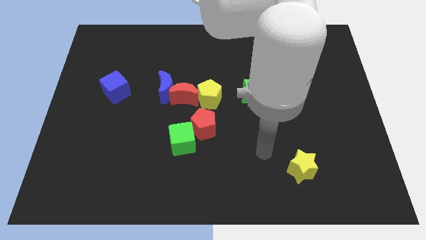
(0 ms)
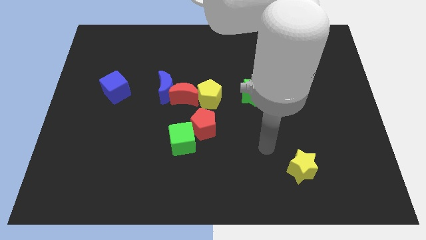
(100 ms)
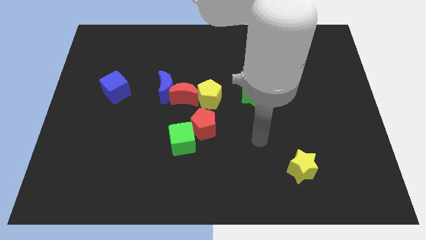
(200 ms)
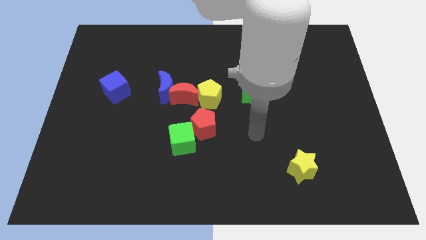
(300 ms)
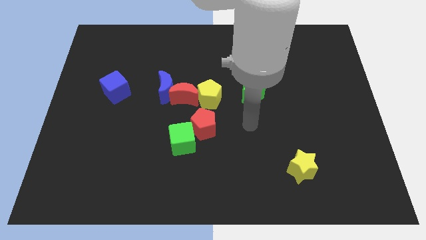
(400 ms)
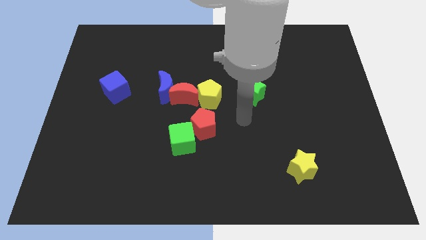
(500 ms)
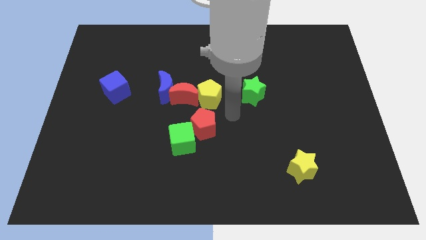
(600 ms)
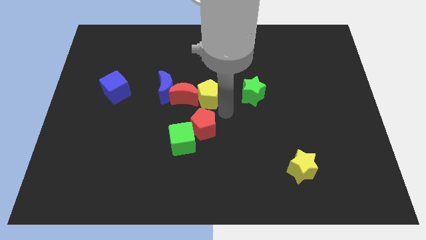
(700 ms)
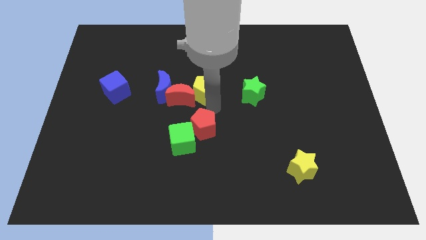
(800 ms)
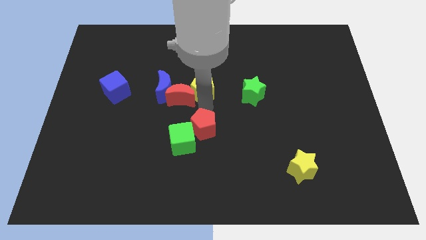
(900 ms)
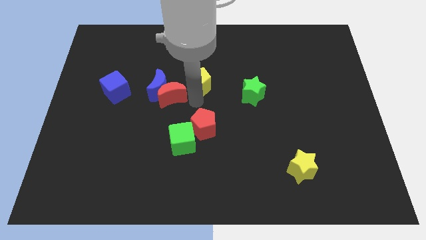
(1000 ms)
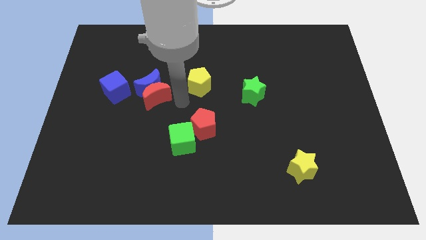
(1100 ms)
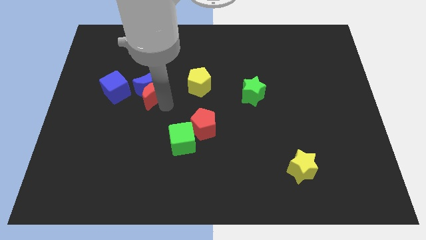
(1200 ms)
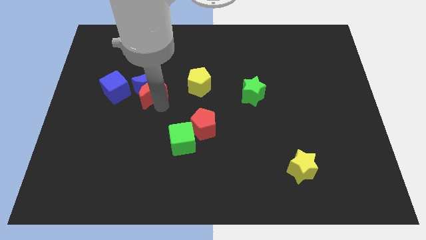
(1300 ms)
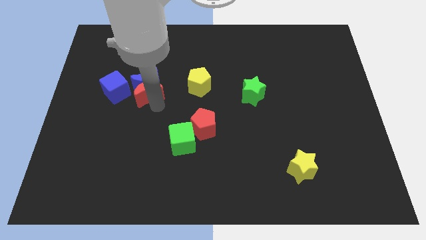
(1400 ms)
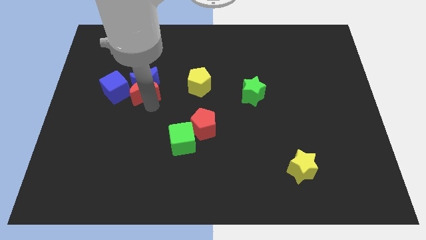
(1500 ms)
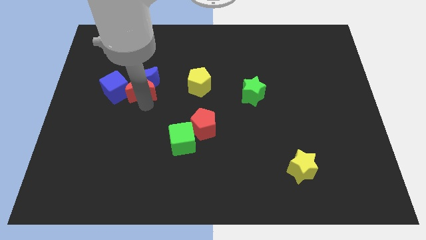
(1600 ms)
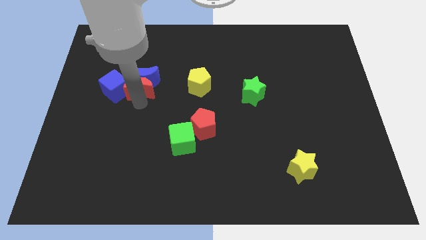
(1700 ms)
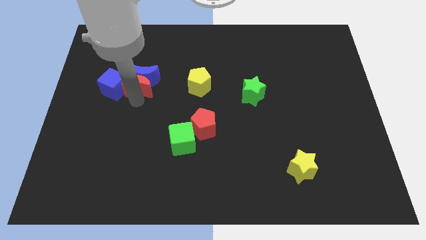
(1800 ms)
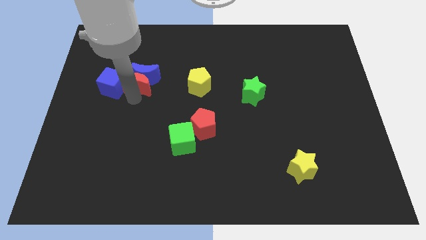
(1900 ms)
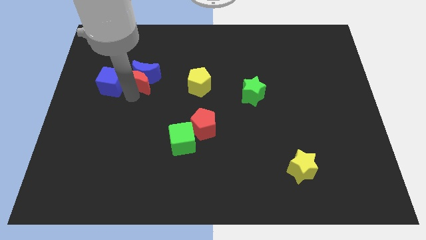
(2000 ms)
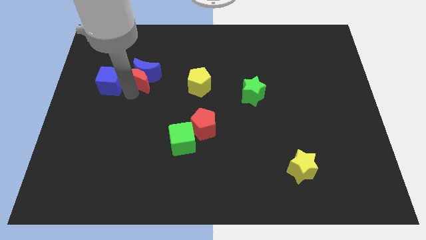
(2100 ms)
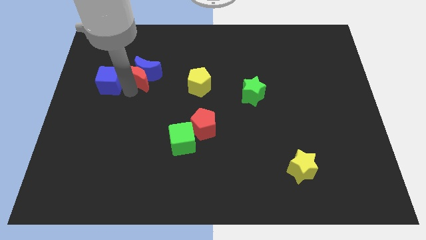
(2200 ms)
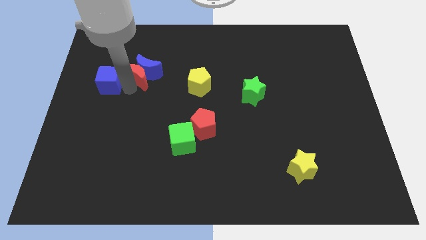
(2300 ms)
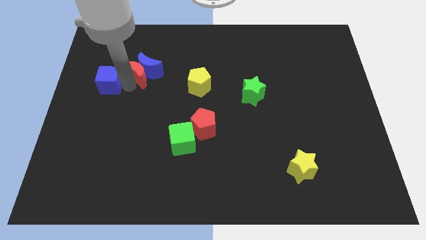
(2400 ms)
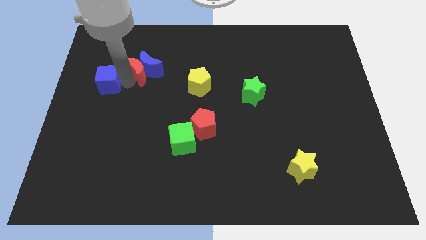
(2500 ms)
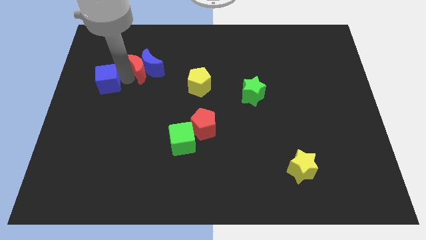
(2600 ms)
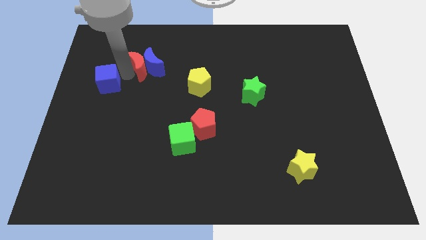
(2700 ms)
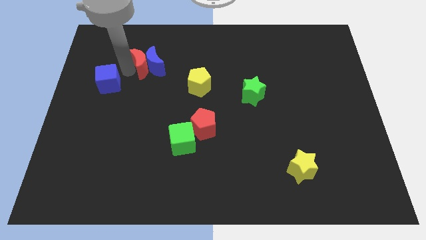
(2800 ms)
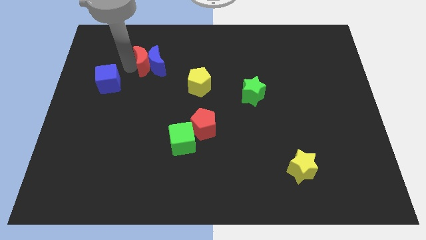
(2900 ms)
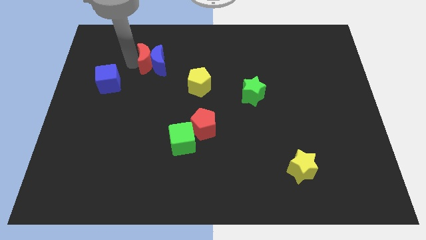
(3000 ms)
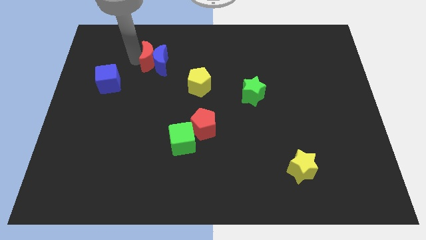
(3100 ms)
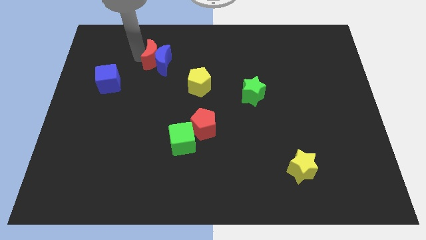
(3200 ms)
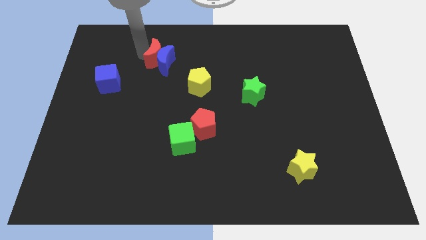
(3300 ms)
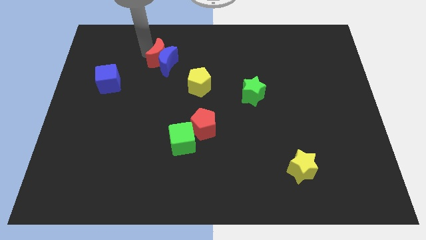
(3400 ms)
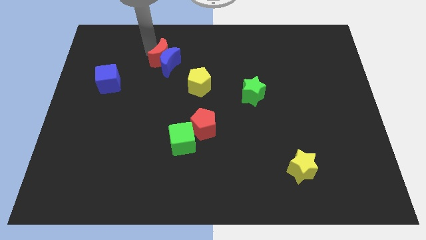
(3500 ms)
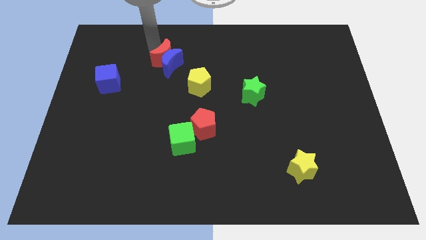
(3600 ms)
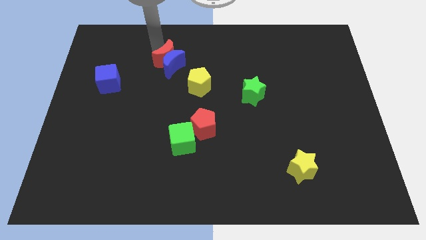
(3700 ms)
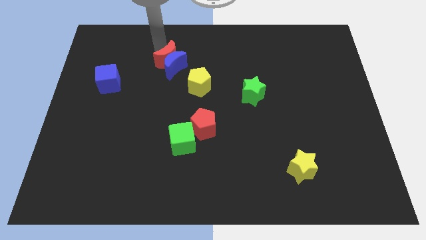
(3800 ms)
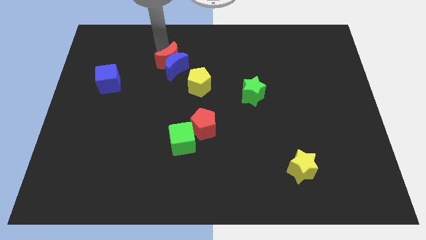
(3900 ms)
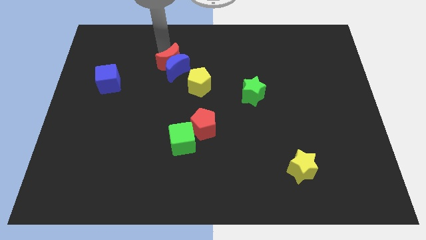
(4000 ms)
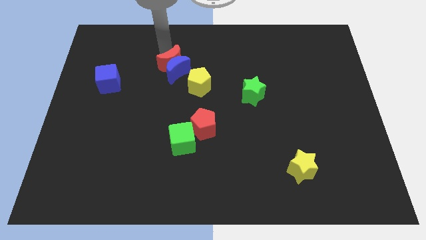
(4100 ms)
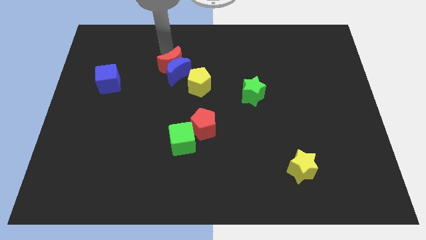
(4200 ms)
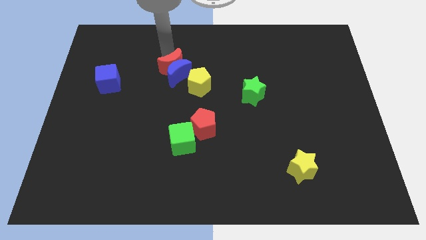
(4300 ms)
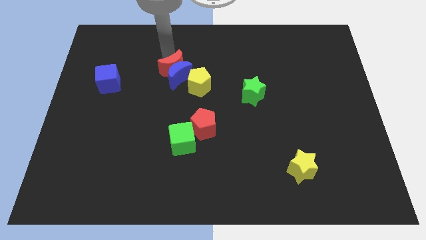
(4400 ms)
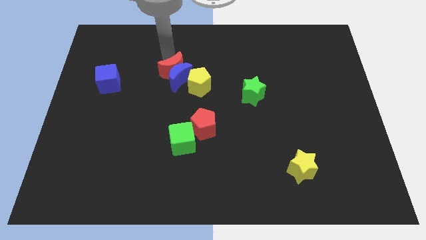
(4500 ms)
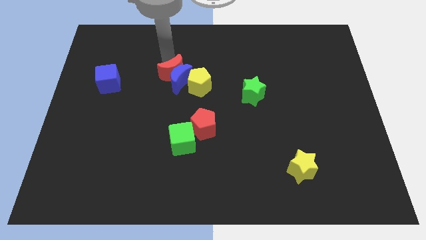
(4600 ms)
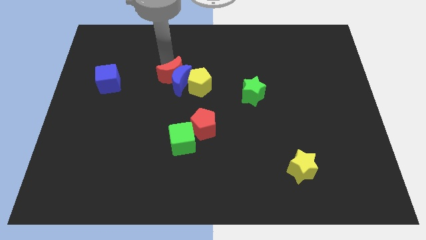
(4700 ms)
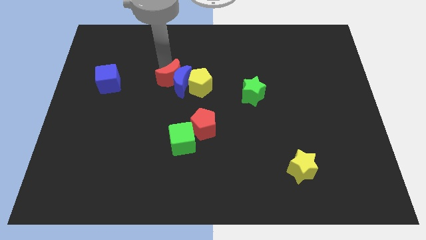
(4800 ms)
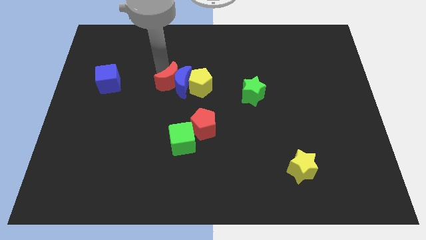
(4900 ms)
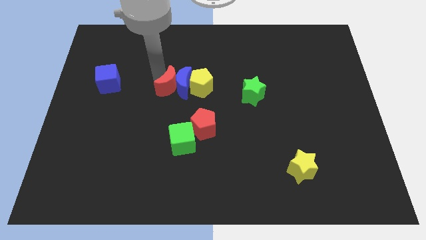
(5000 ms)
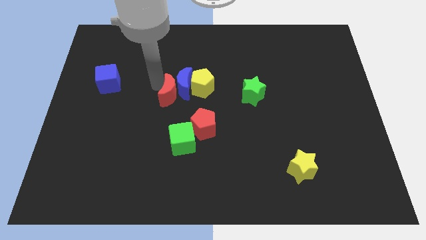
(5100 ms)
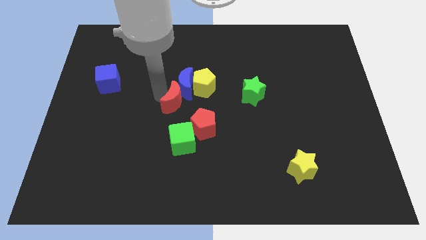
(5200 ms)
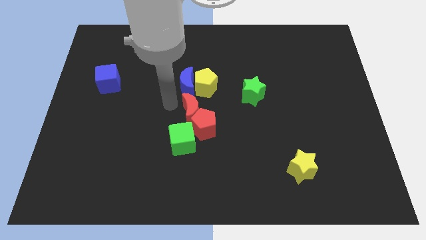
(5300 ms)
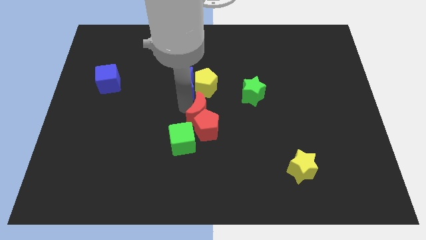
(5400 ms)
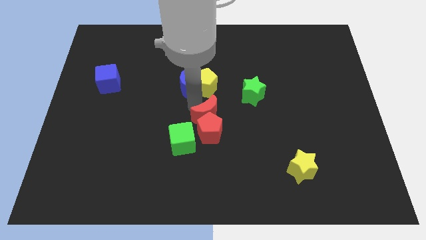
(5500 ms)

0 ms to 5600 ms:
separate the blue moon from the red moon

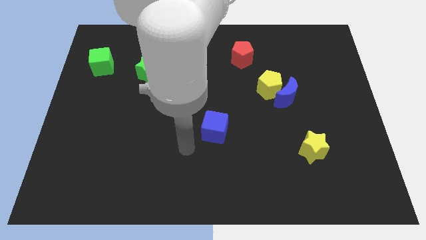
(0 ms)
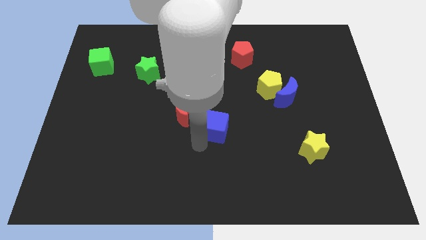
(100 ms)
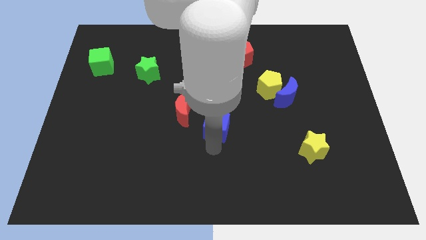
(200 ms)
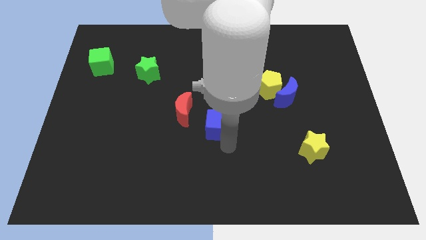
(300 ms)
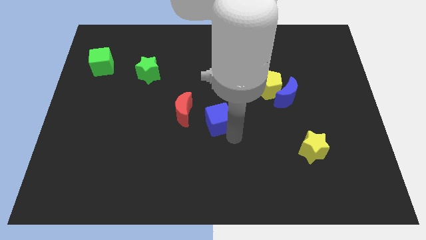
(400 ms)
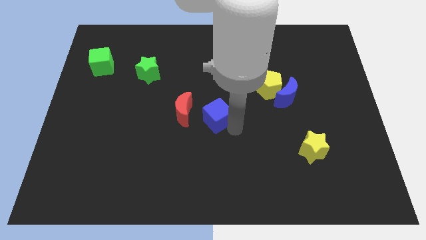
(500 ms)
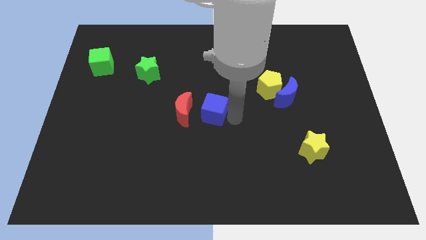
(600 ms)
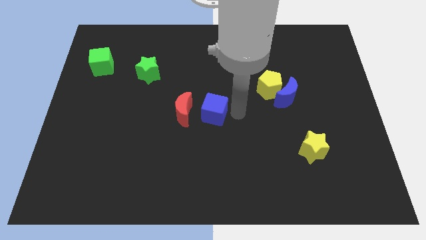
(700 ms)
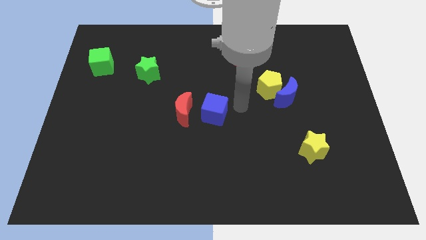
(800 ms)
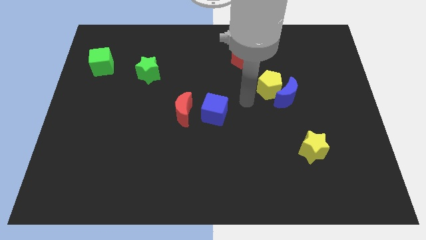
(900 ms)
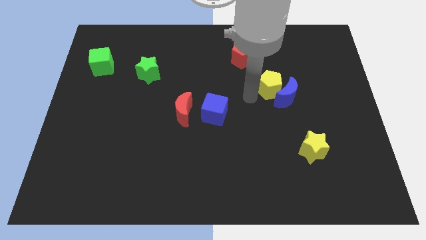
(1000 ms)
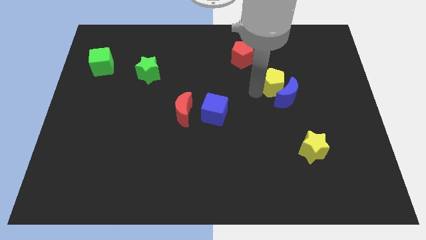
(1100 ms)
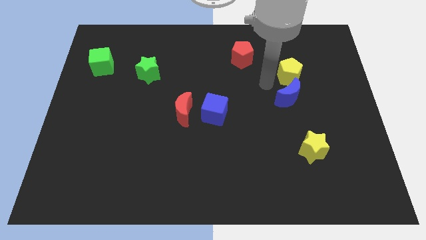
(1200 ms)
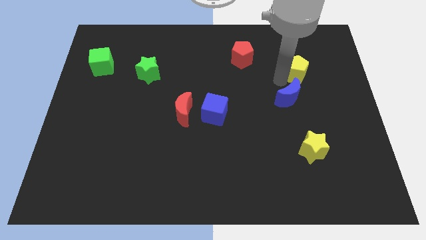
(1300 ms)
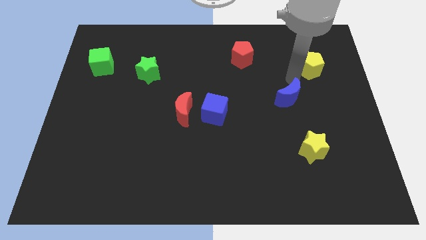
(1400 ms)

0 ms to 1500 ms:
pull the blue moon apart from the yellow pentagon

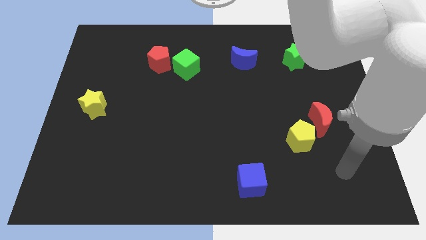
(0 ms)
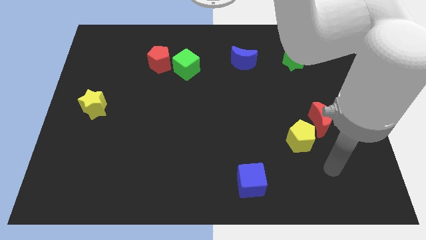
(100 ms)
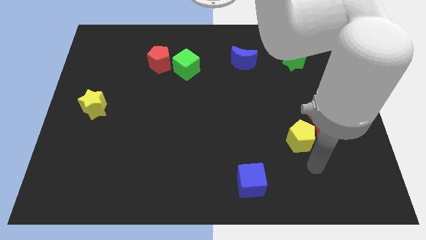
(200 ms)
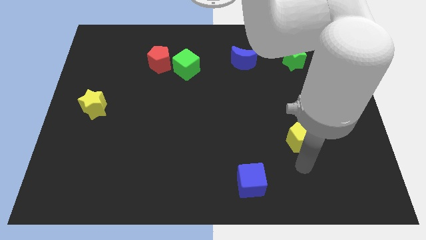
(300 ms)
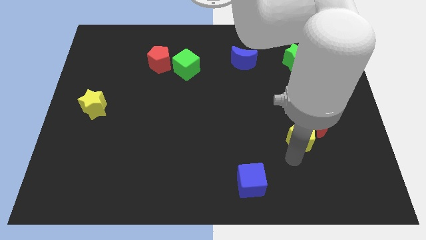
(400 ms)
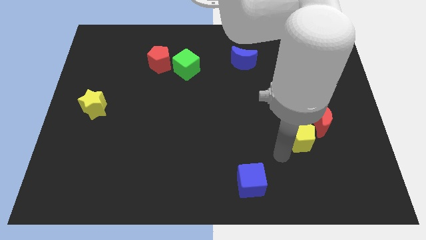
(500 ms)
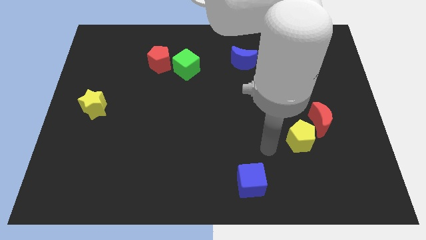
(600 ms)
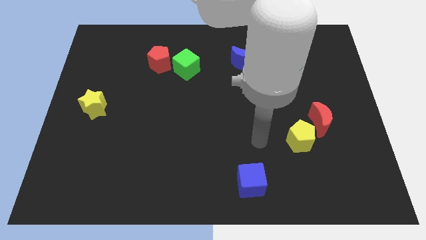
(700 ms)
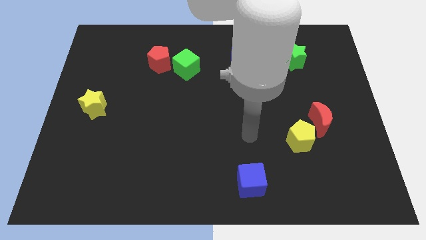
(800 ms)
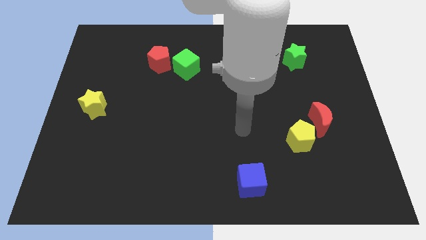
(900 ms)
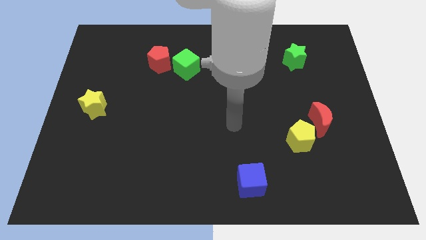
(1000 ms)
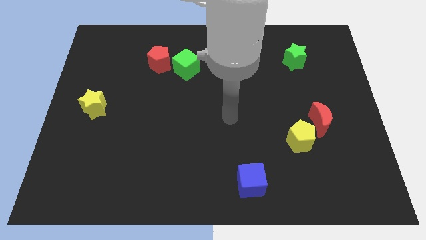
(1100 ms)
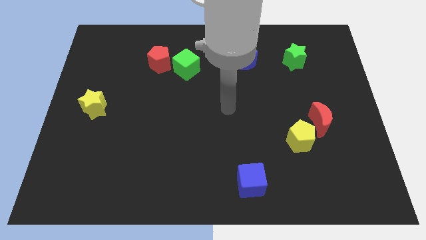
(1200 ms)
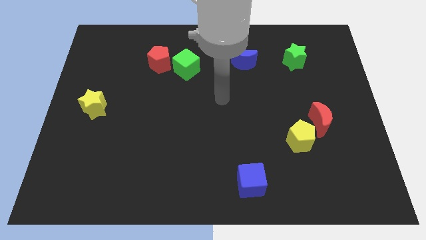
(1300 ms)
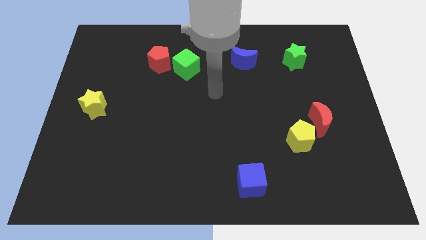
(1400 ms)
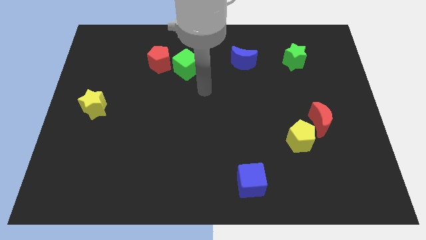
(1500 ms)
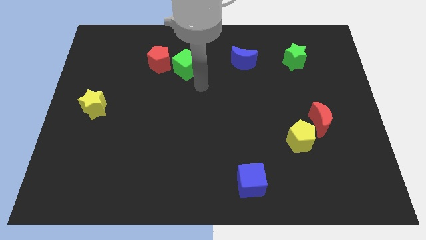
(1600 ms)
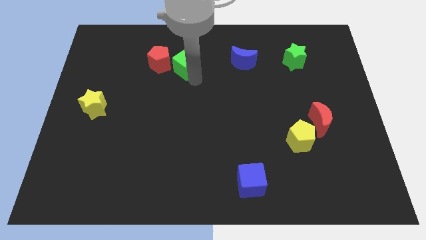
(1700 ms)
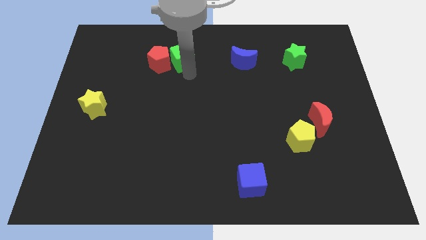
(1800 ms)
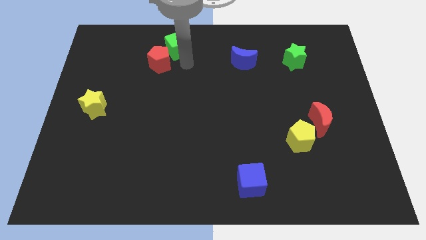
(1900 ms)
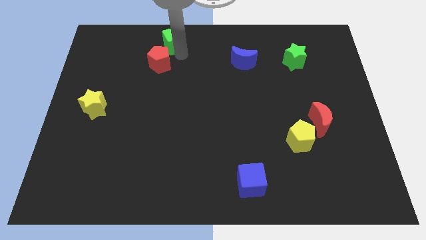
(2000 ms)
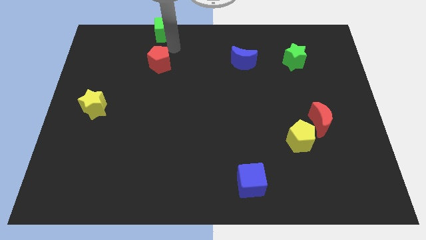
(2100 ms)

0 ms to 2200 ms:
move the red pentagon away from the green cube
